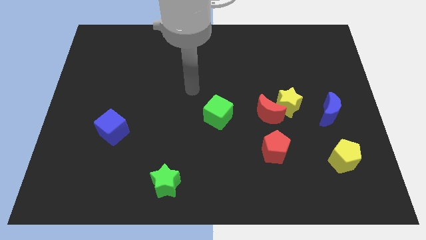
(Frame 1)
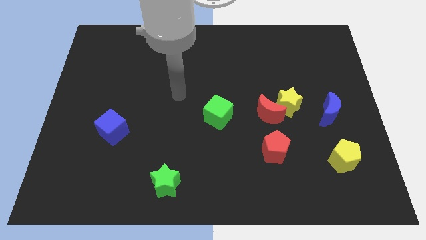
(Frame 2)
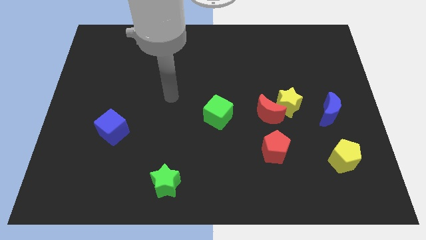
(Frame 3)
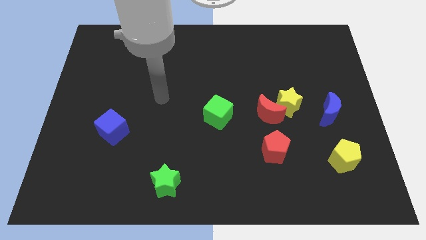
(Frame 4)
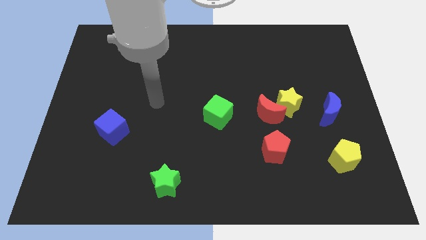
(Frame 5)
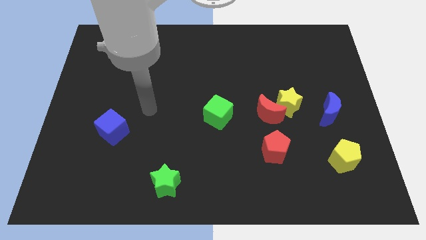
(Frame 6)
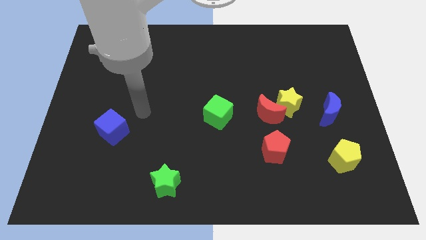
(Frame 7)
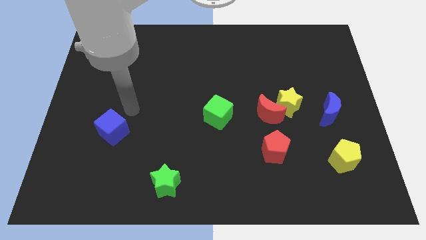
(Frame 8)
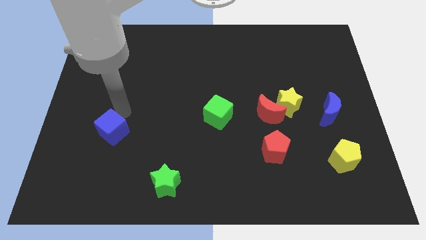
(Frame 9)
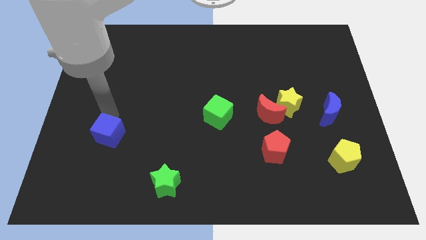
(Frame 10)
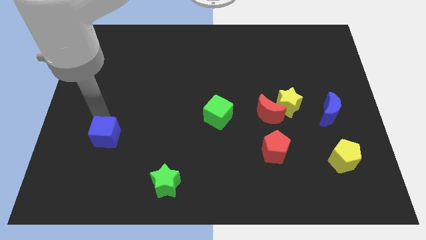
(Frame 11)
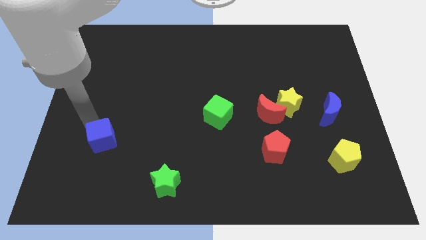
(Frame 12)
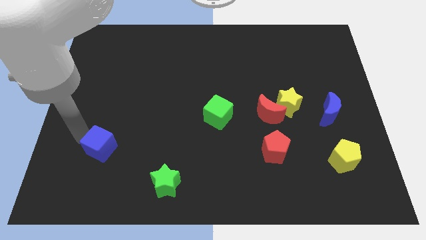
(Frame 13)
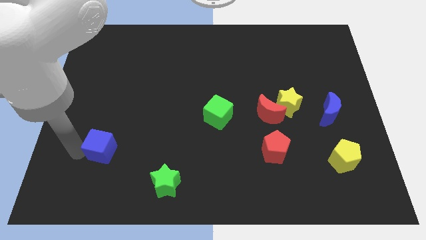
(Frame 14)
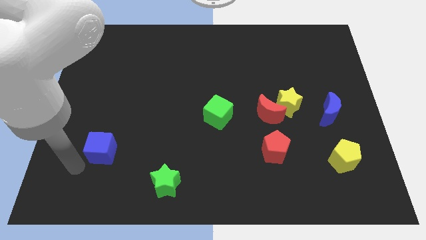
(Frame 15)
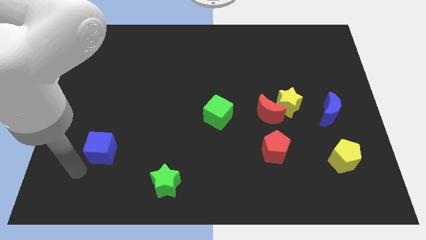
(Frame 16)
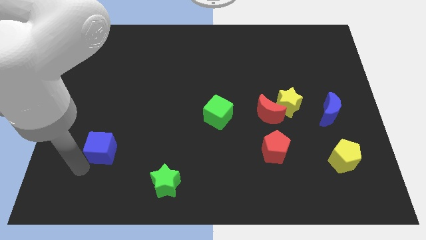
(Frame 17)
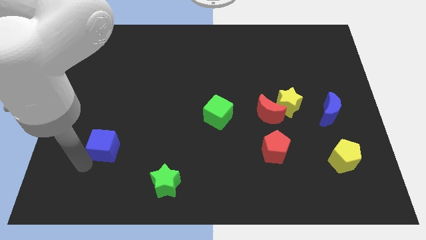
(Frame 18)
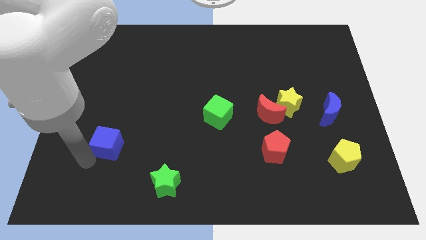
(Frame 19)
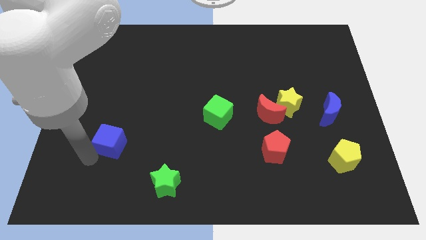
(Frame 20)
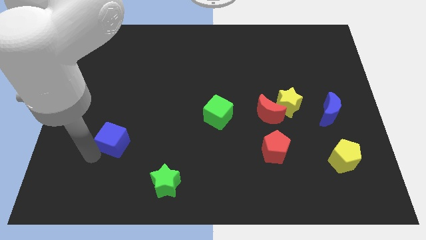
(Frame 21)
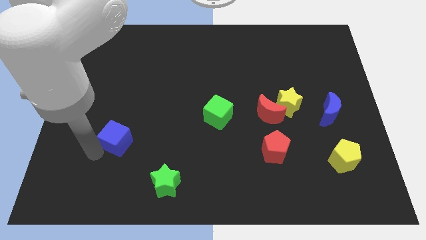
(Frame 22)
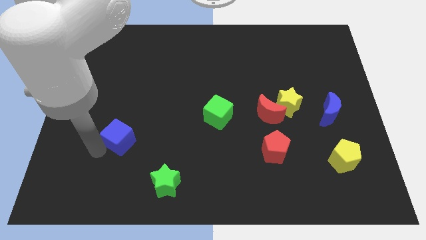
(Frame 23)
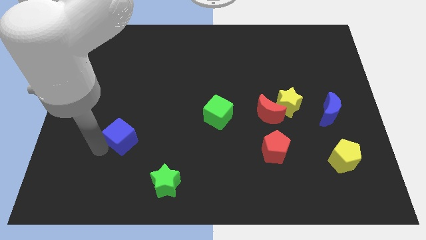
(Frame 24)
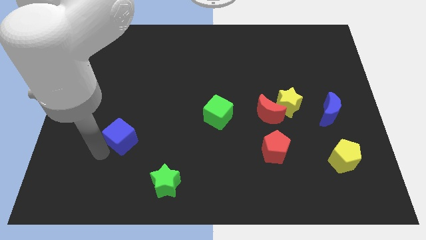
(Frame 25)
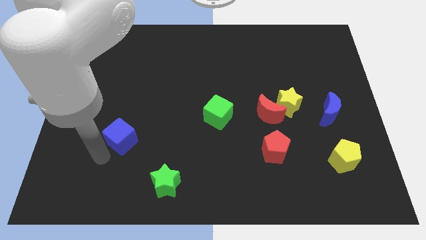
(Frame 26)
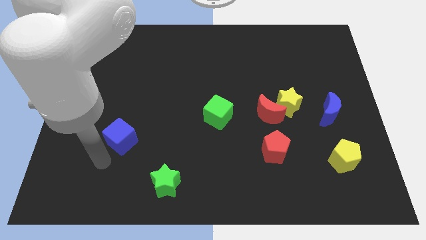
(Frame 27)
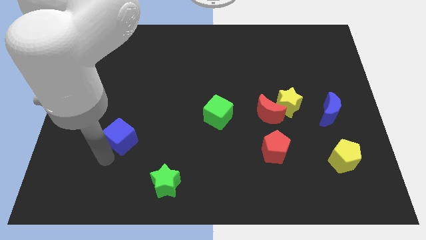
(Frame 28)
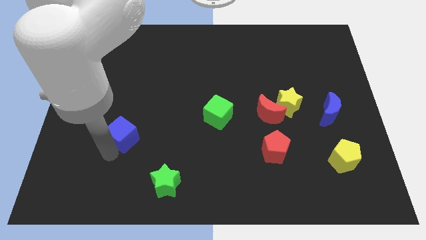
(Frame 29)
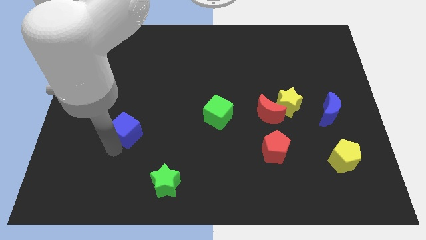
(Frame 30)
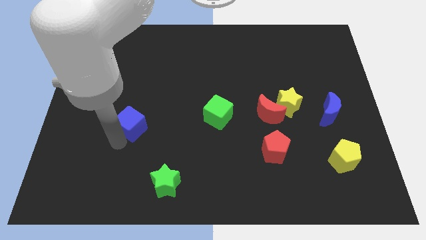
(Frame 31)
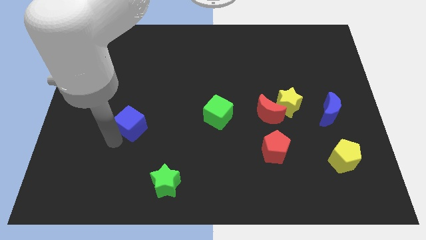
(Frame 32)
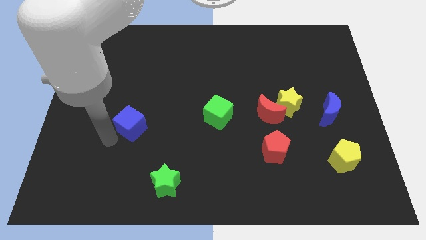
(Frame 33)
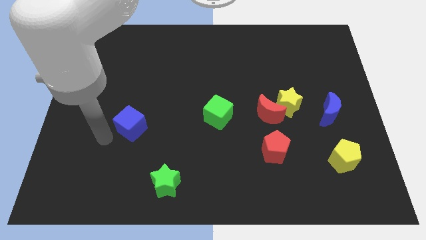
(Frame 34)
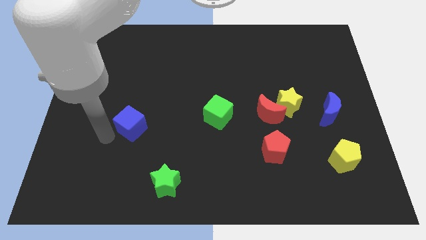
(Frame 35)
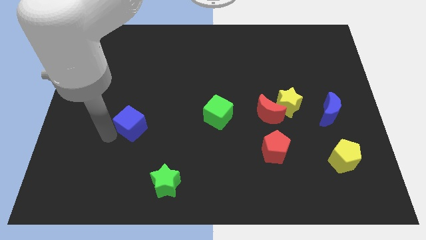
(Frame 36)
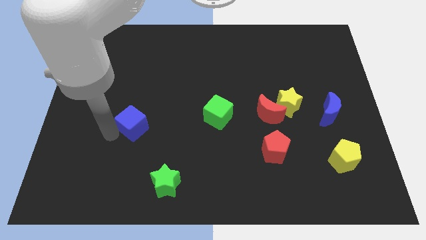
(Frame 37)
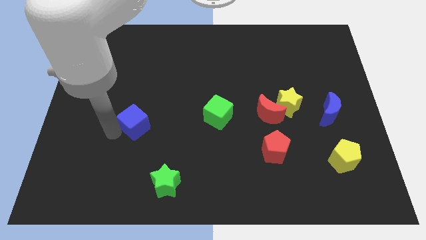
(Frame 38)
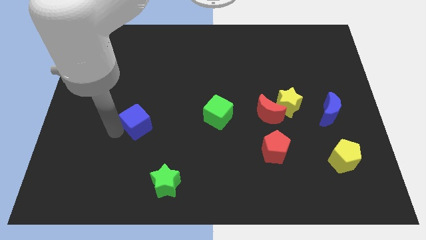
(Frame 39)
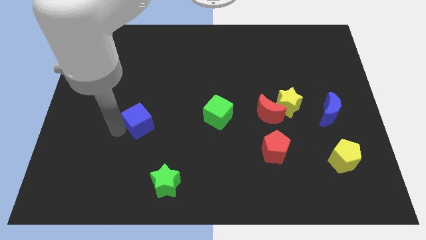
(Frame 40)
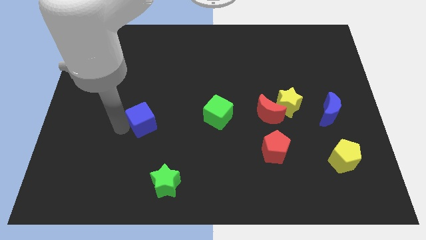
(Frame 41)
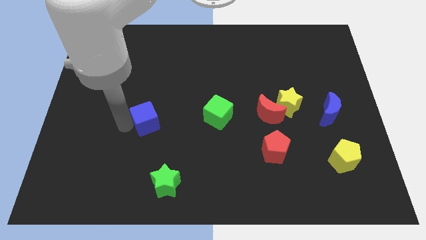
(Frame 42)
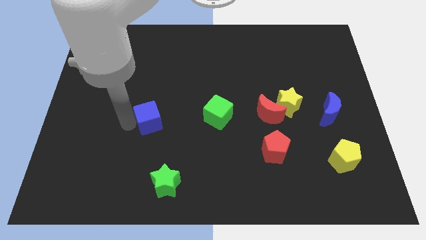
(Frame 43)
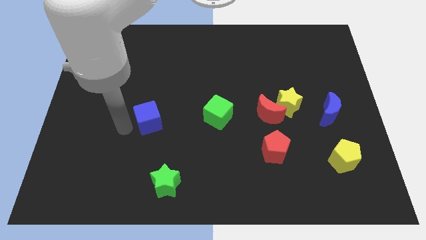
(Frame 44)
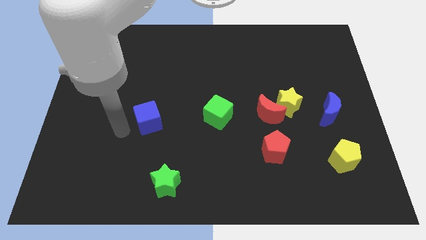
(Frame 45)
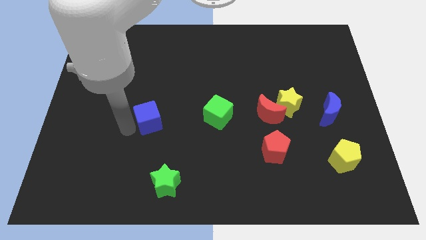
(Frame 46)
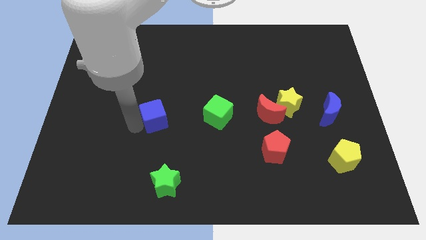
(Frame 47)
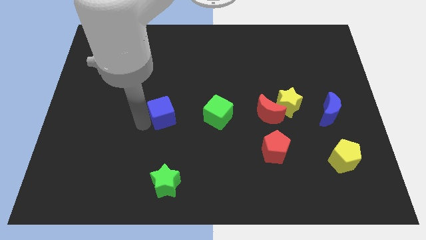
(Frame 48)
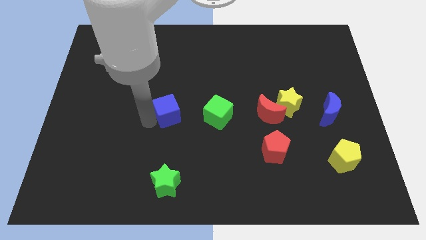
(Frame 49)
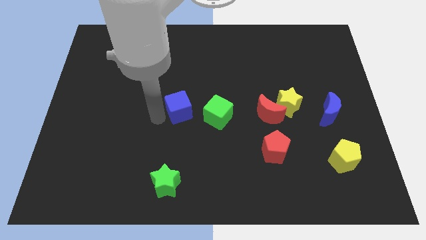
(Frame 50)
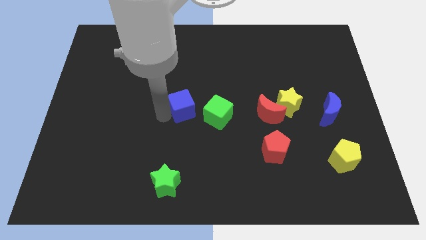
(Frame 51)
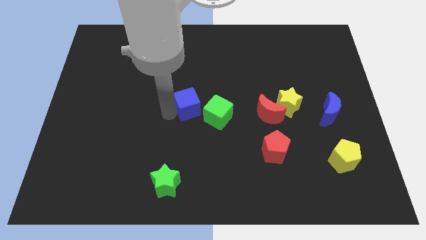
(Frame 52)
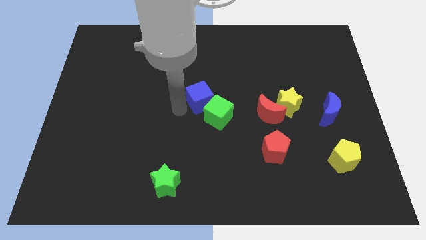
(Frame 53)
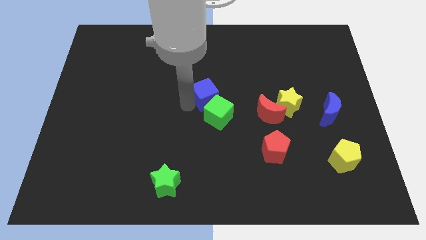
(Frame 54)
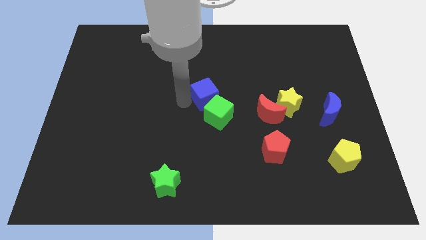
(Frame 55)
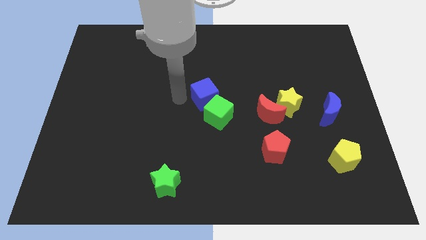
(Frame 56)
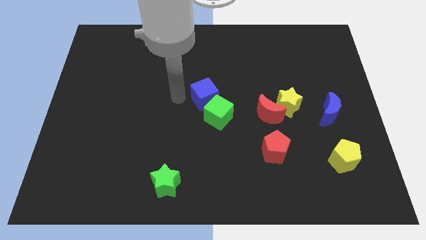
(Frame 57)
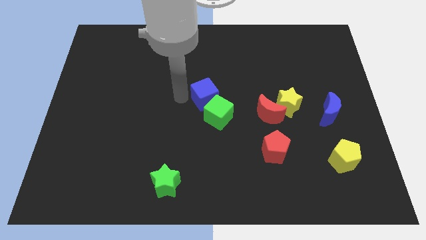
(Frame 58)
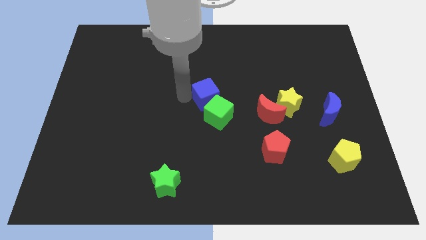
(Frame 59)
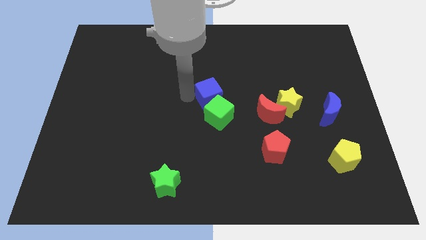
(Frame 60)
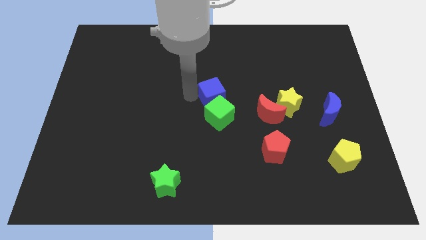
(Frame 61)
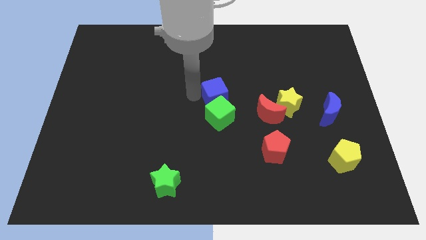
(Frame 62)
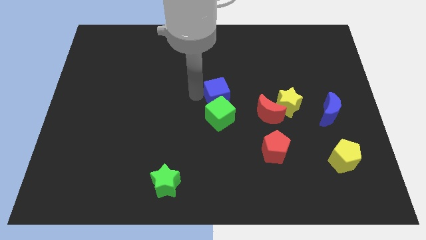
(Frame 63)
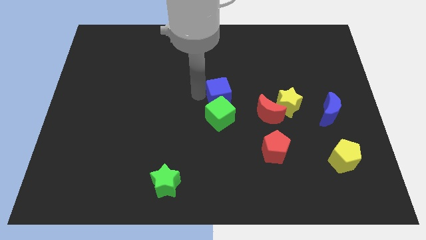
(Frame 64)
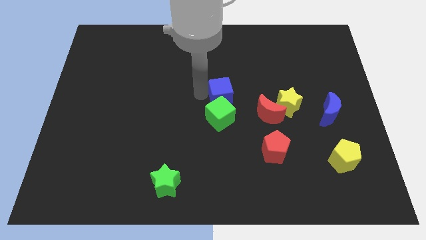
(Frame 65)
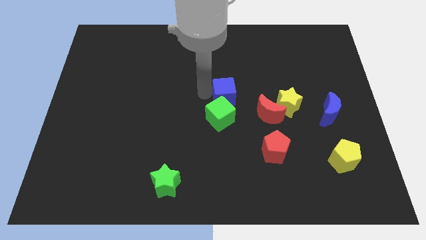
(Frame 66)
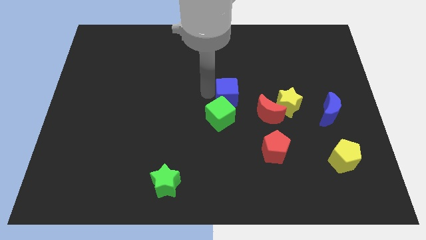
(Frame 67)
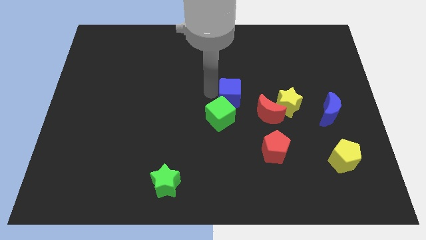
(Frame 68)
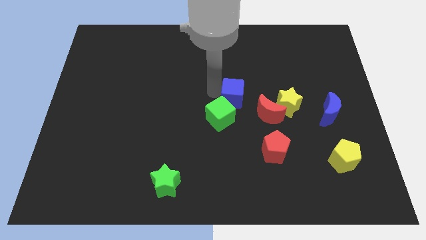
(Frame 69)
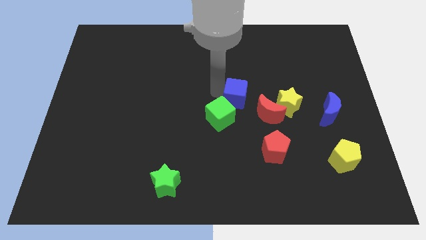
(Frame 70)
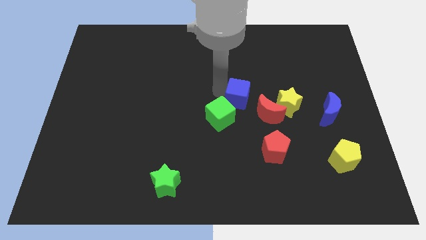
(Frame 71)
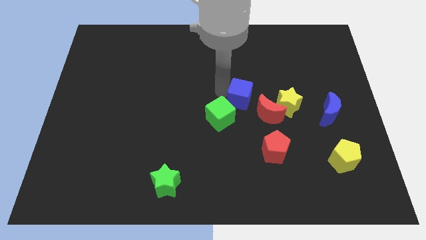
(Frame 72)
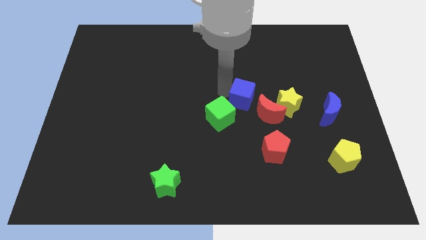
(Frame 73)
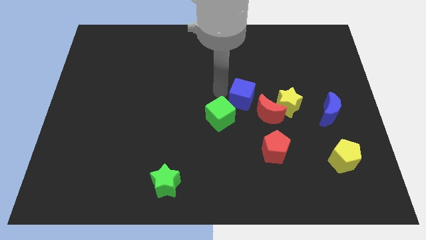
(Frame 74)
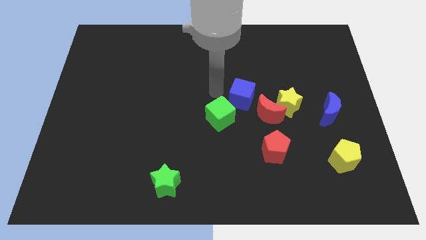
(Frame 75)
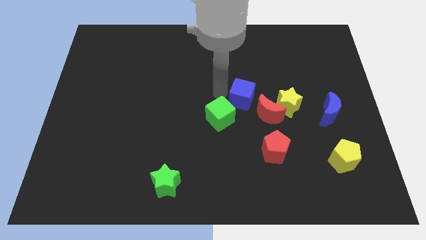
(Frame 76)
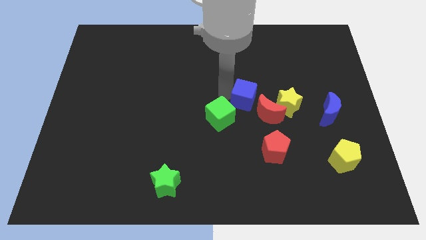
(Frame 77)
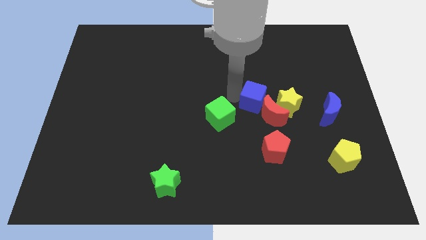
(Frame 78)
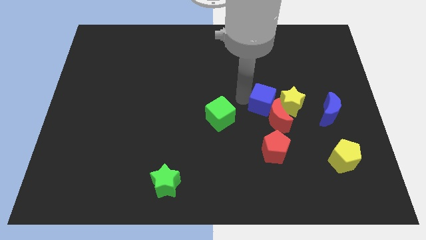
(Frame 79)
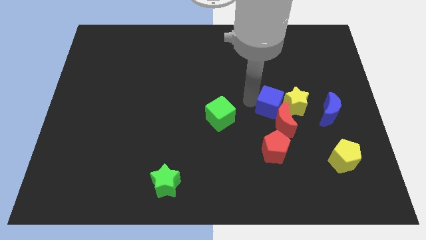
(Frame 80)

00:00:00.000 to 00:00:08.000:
slide the blue cube next to the yellow star
